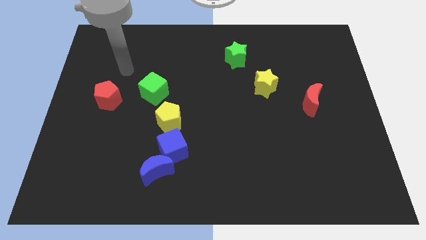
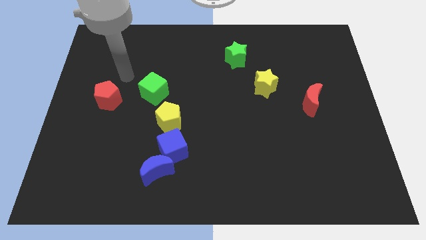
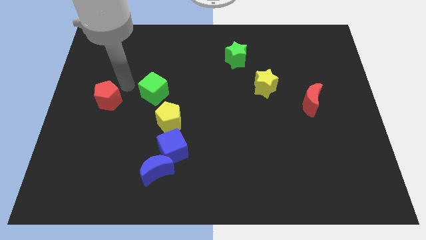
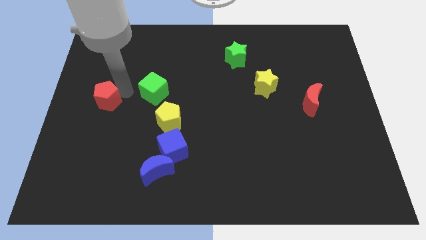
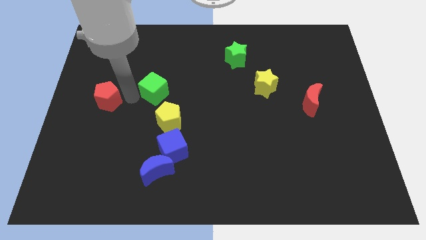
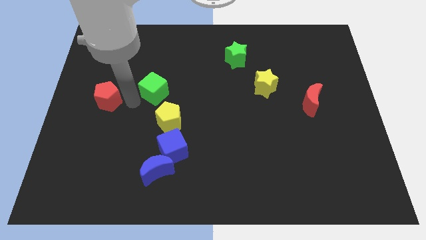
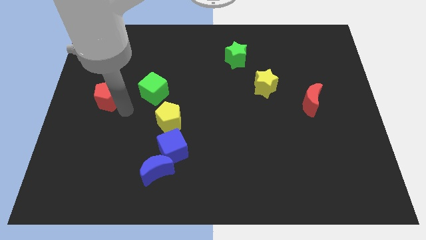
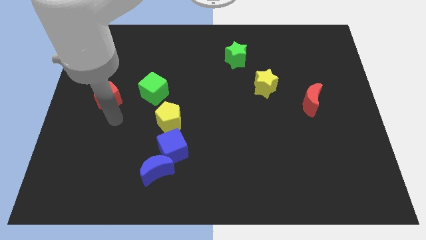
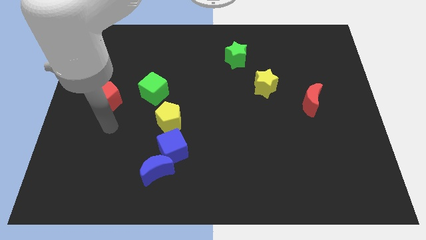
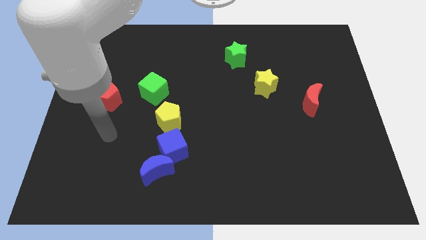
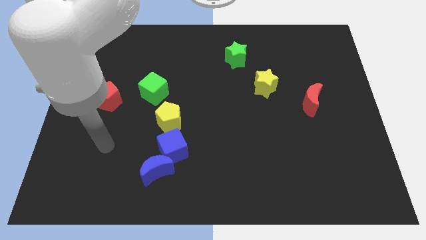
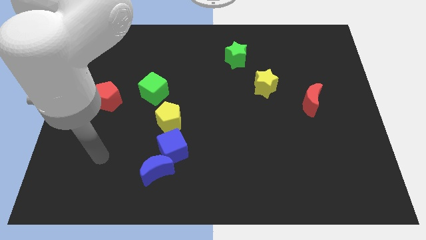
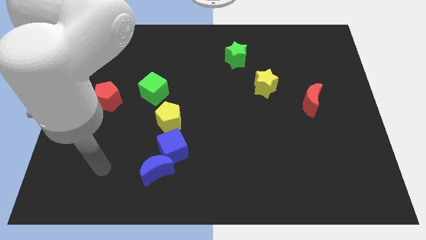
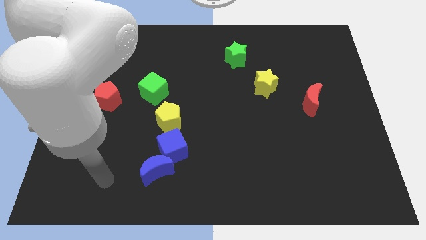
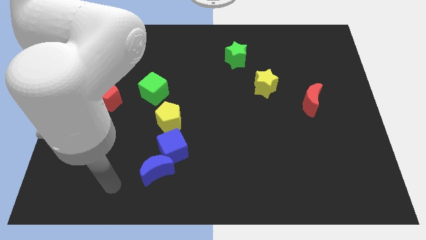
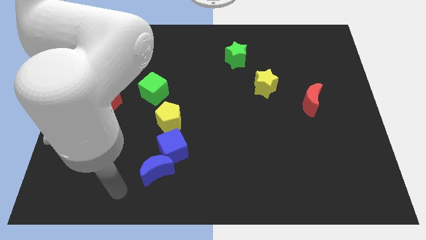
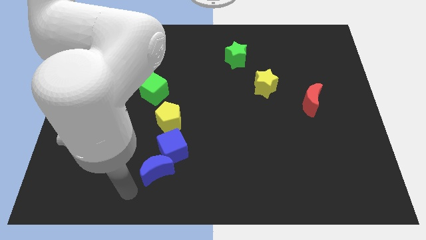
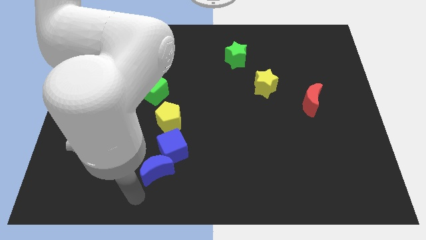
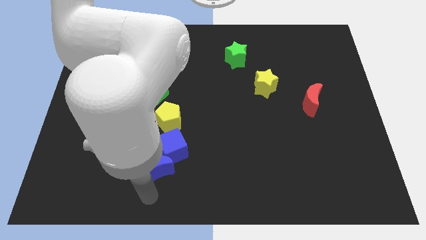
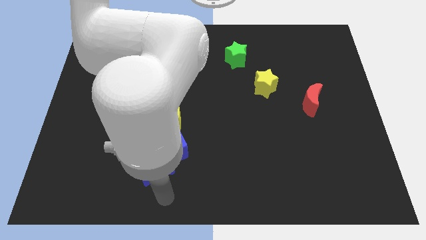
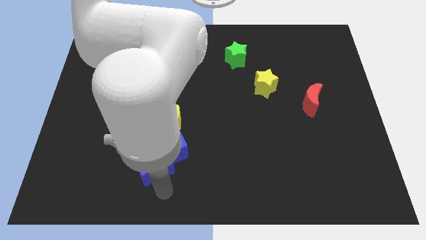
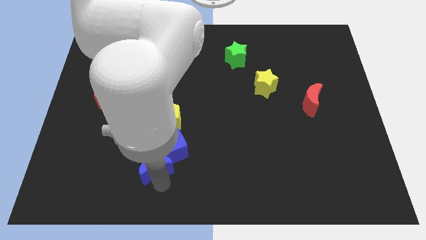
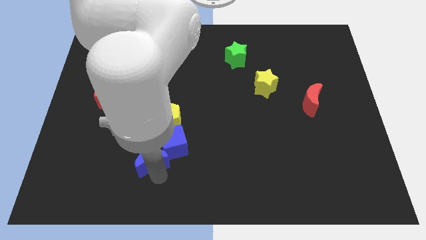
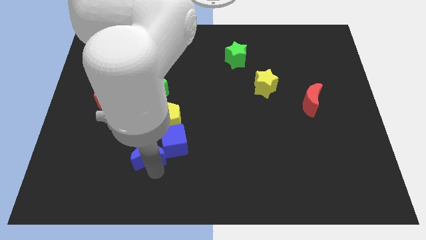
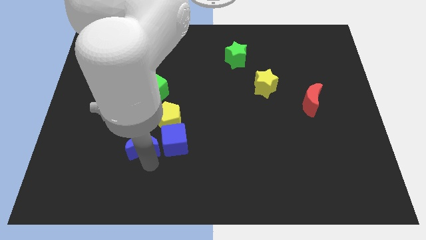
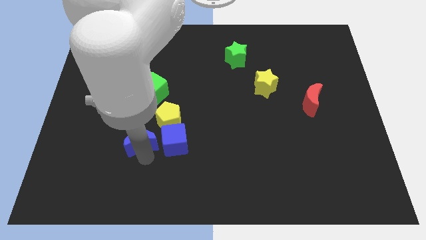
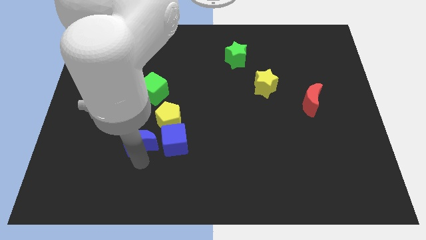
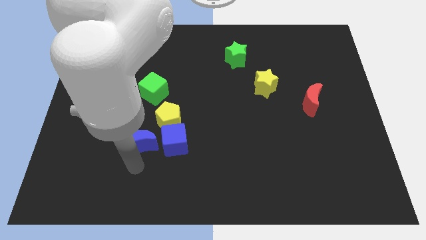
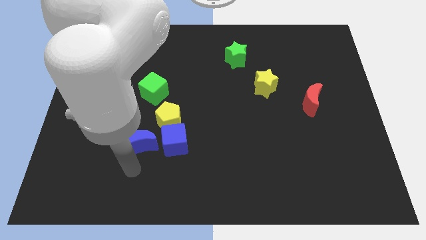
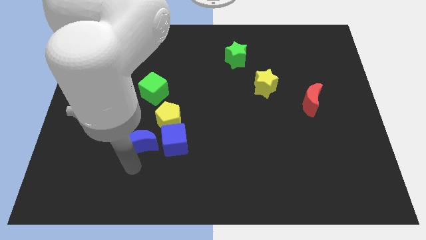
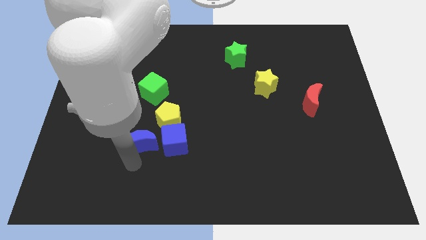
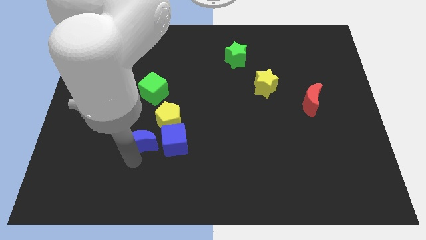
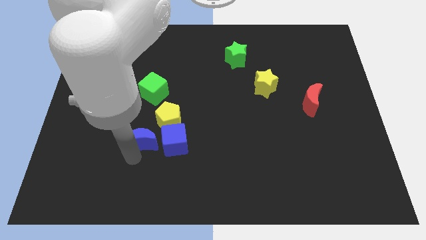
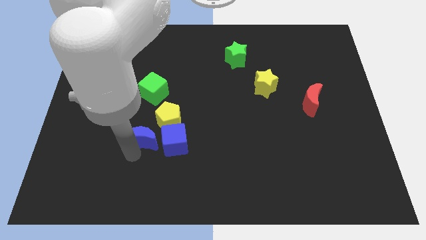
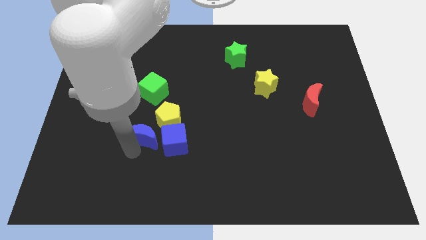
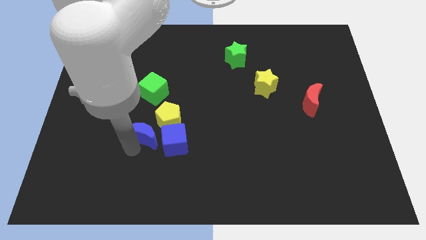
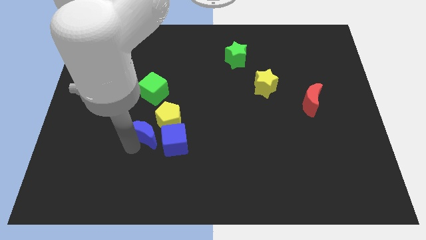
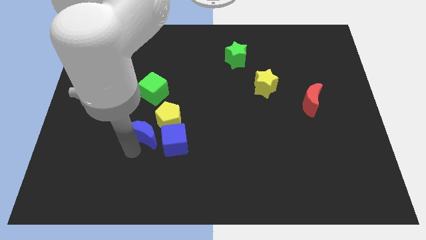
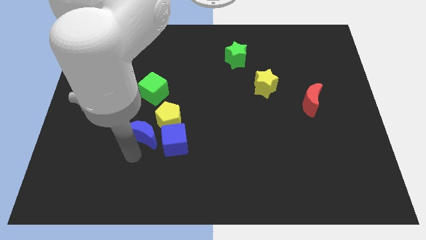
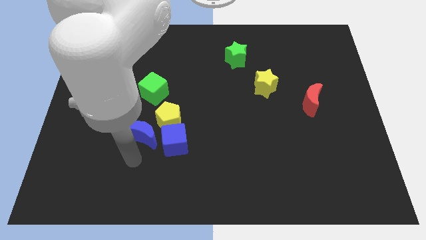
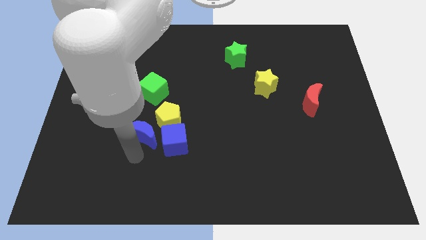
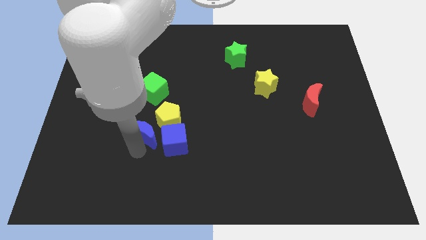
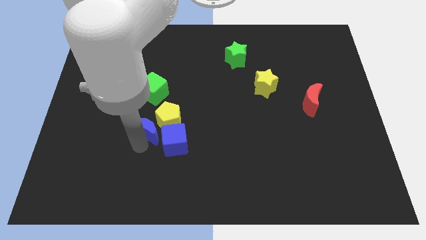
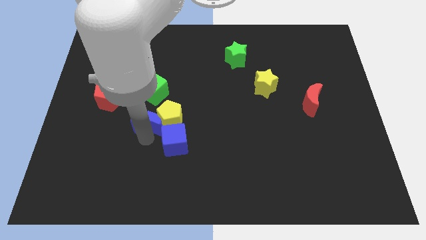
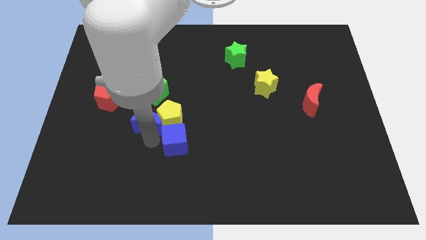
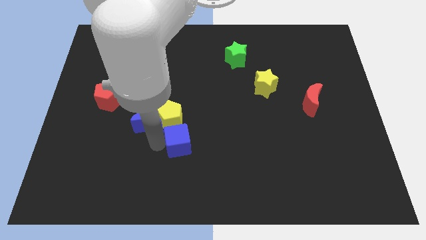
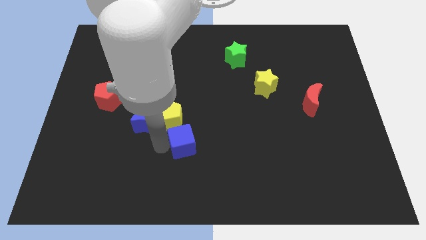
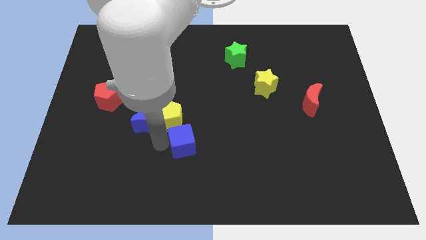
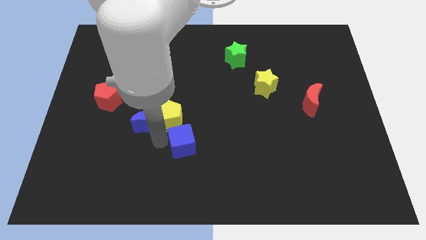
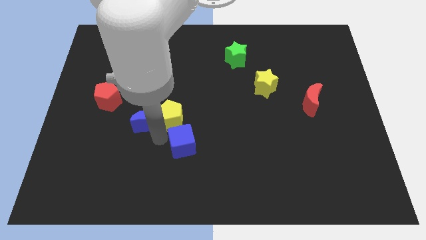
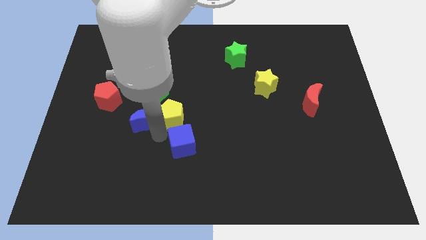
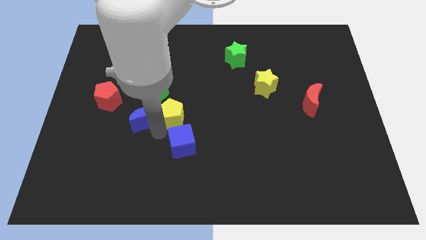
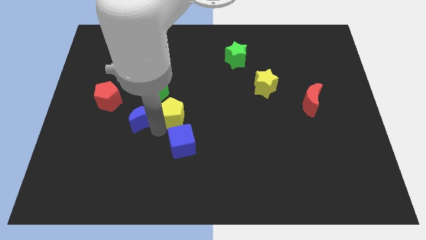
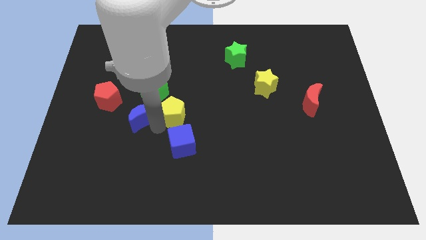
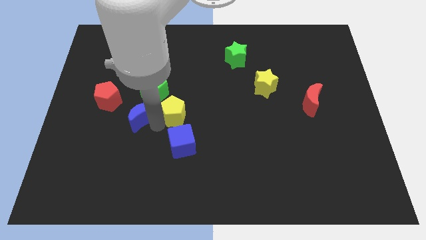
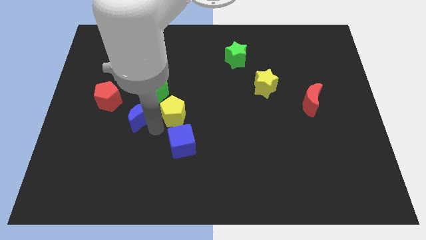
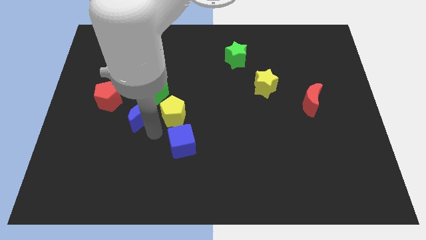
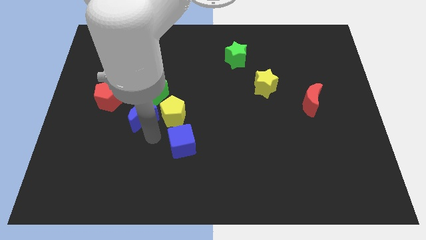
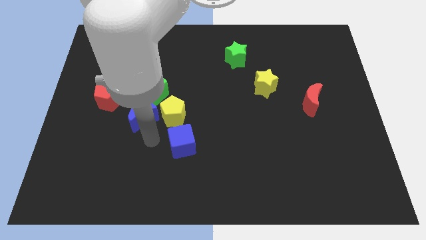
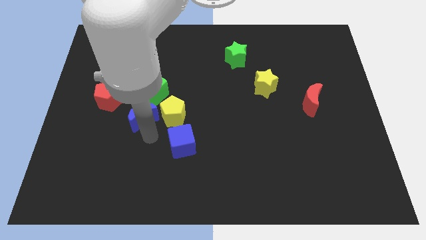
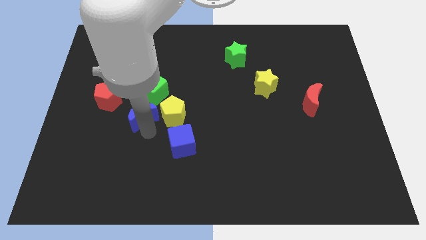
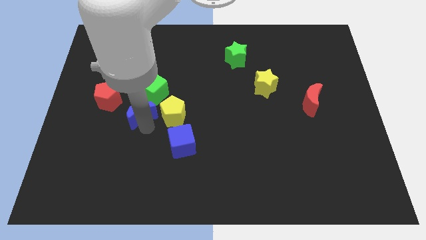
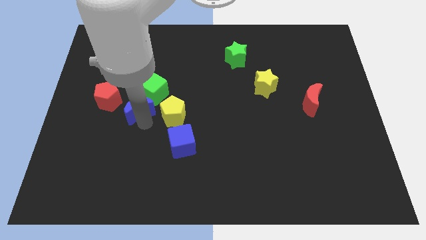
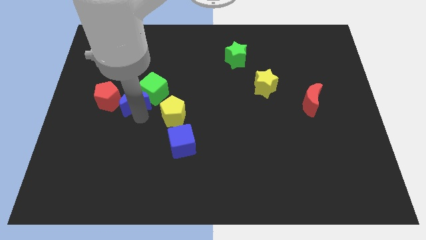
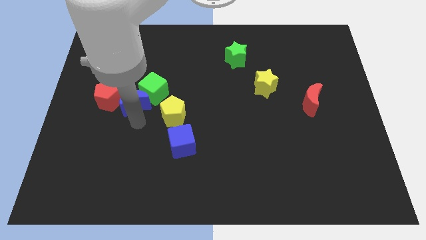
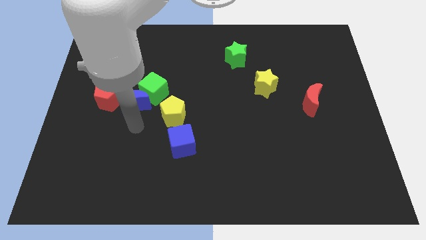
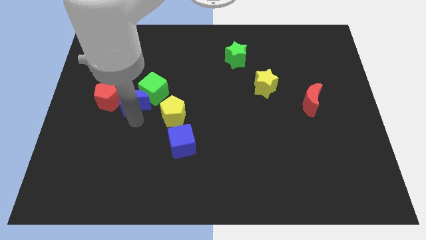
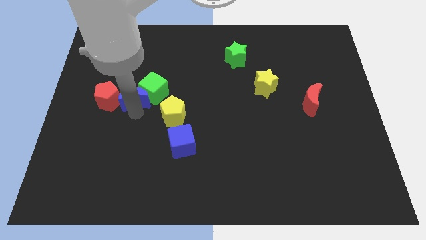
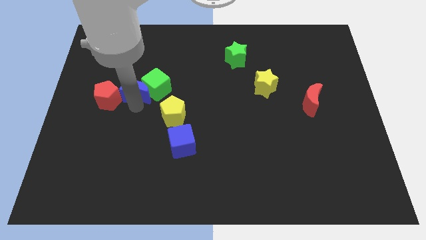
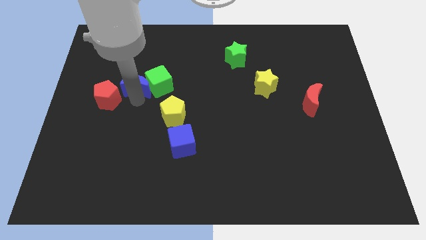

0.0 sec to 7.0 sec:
slide the blue moon diagonally up and to the left of the green cube
